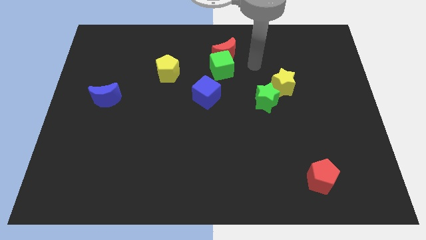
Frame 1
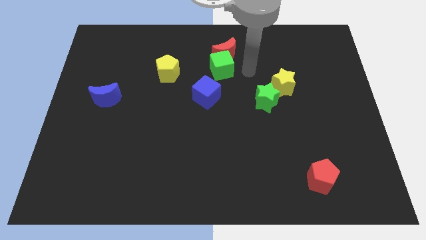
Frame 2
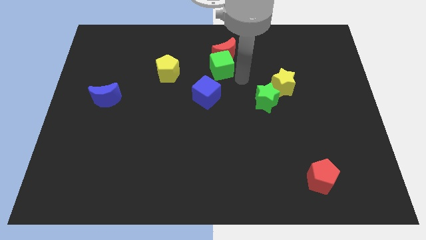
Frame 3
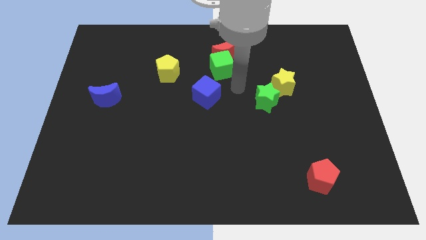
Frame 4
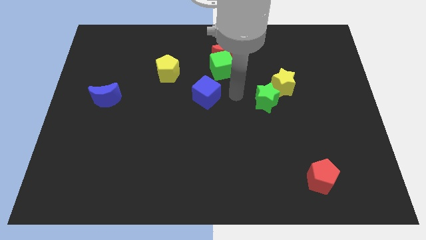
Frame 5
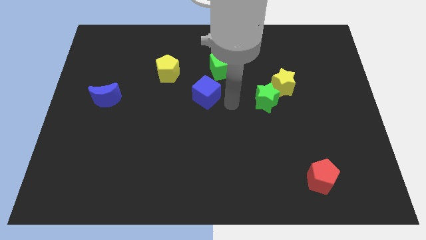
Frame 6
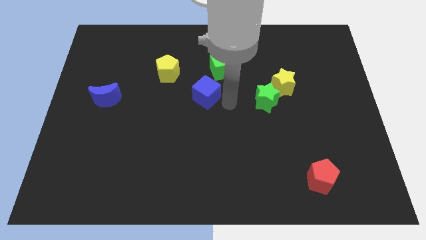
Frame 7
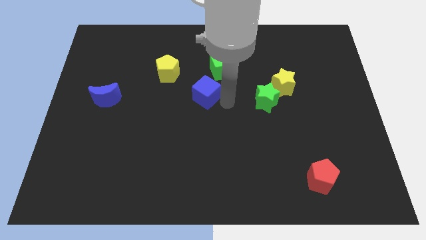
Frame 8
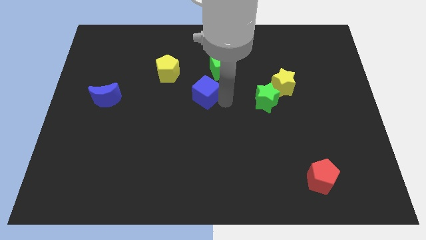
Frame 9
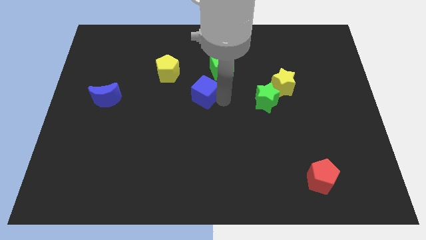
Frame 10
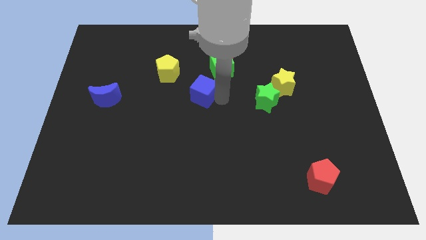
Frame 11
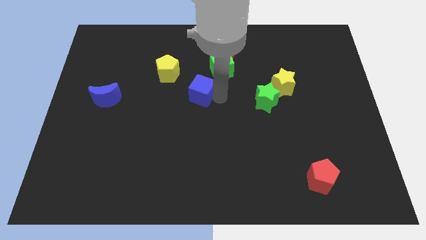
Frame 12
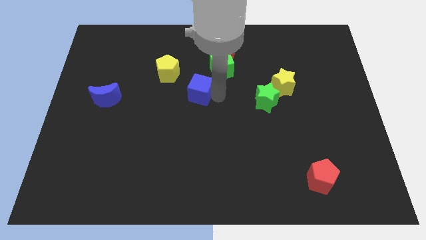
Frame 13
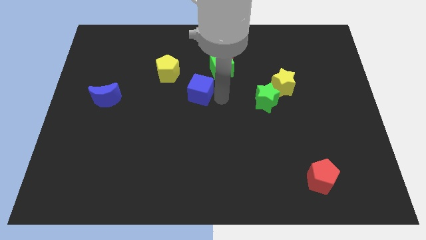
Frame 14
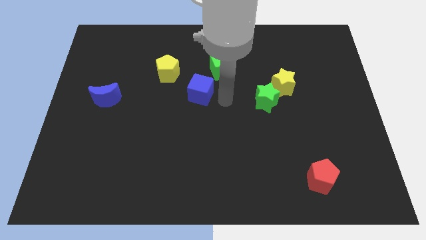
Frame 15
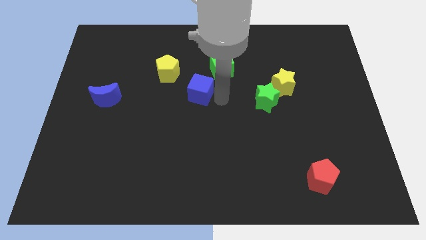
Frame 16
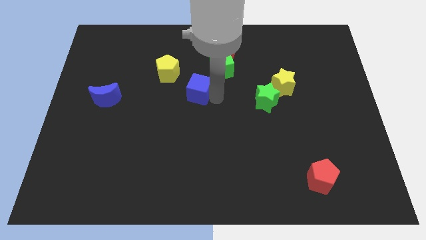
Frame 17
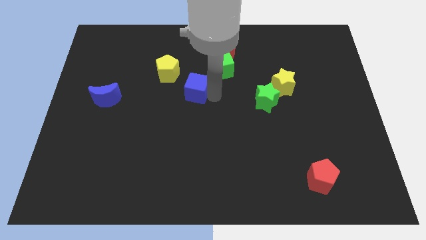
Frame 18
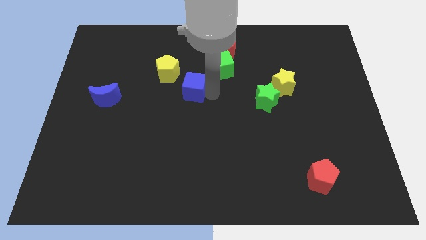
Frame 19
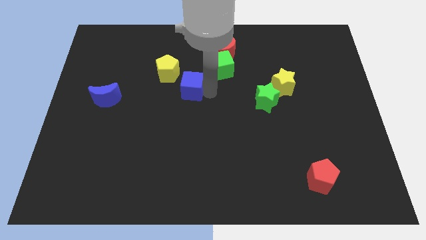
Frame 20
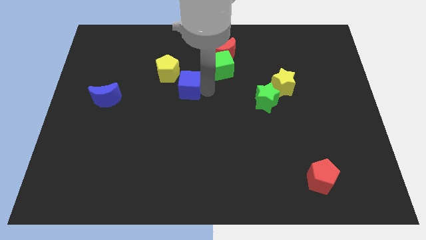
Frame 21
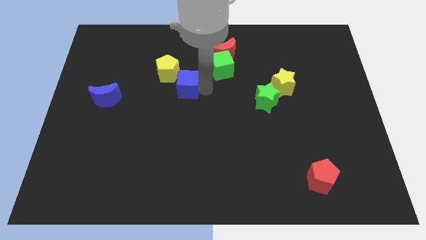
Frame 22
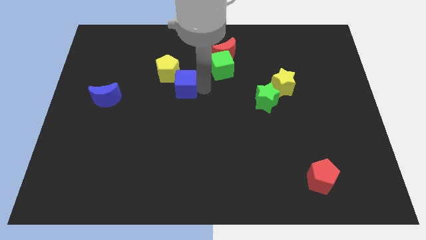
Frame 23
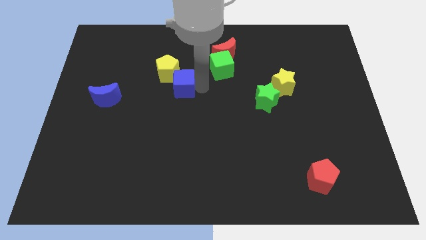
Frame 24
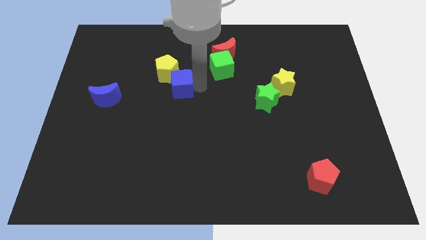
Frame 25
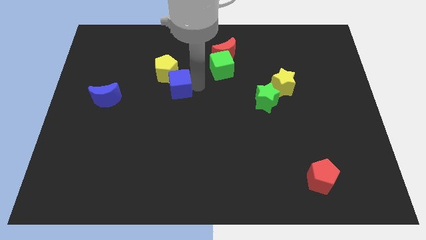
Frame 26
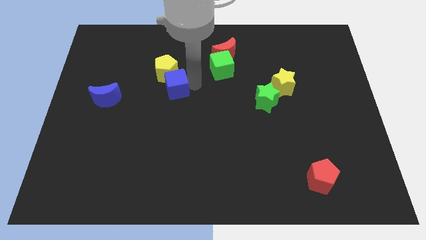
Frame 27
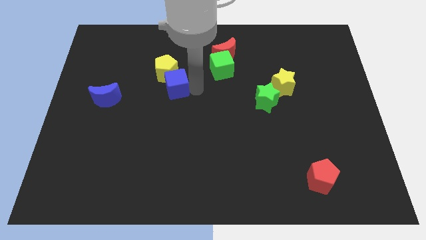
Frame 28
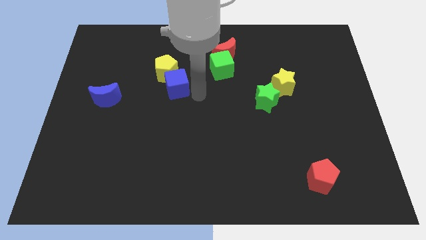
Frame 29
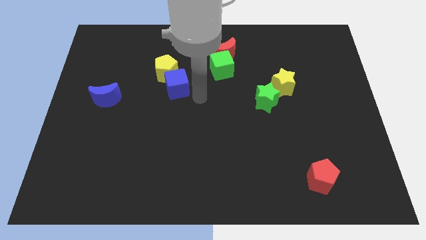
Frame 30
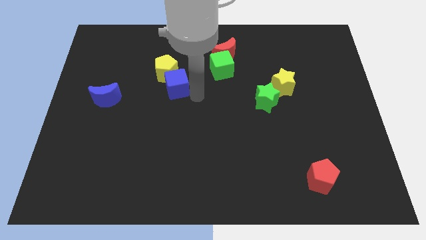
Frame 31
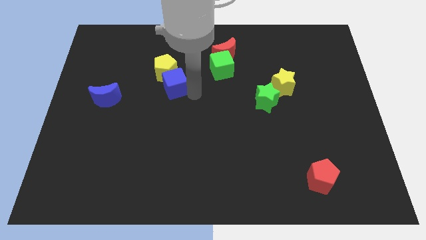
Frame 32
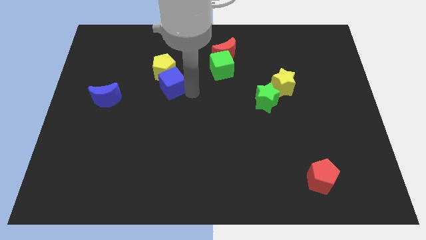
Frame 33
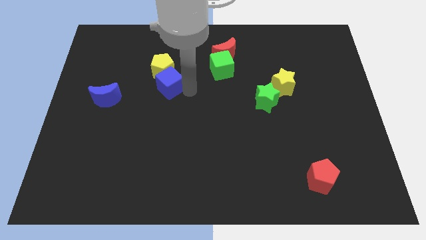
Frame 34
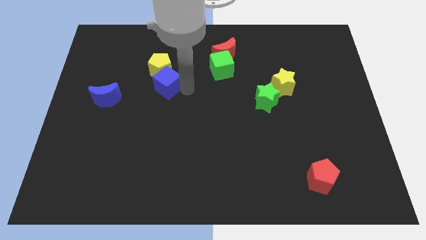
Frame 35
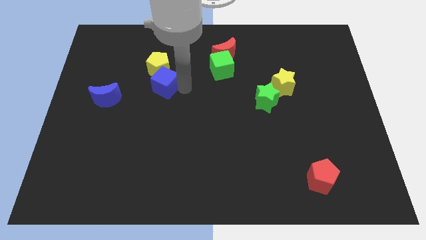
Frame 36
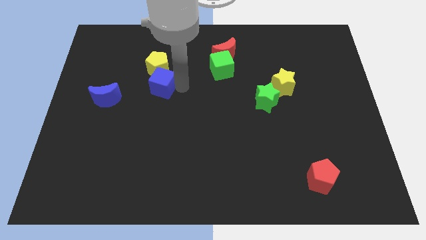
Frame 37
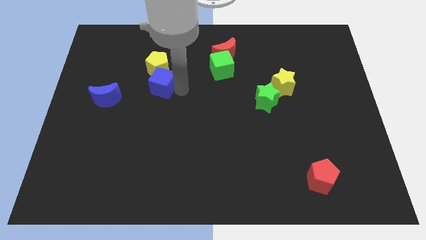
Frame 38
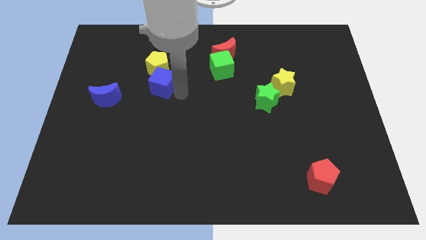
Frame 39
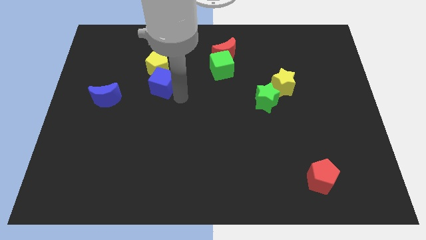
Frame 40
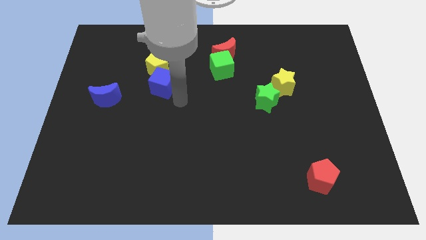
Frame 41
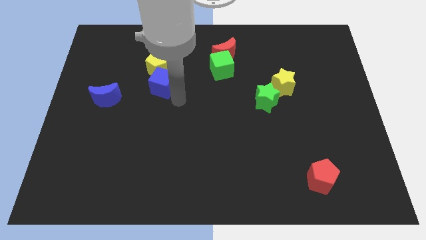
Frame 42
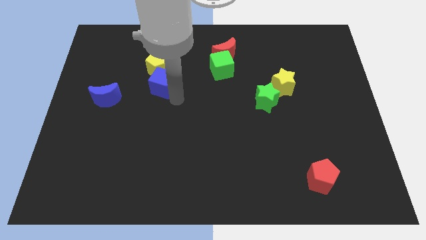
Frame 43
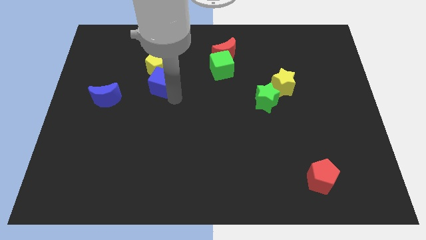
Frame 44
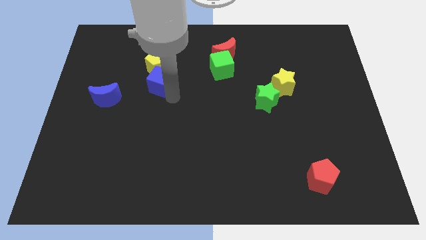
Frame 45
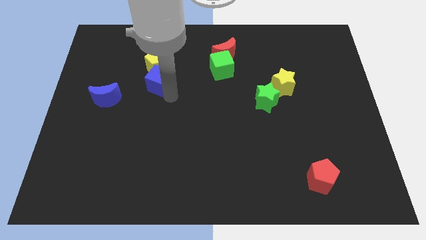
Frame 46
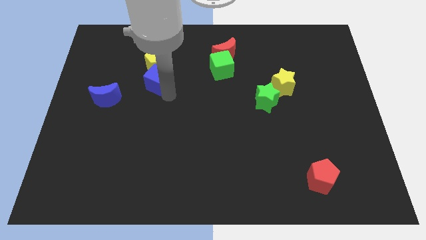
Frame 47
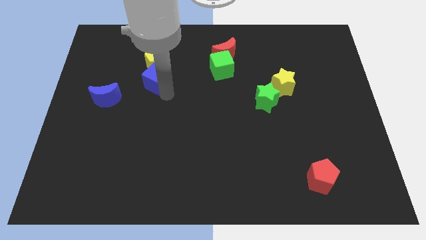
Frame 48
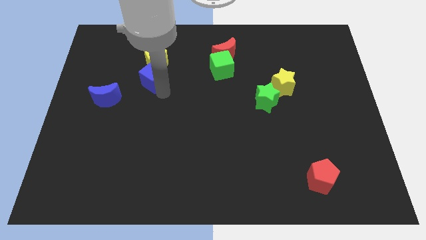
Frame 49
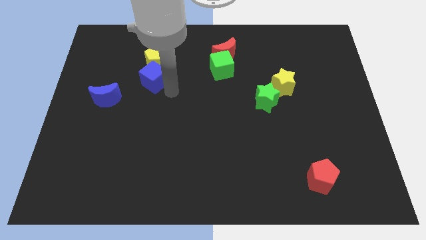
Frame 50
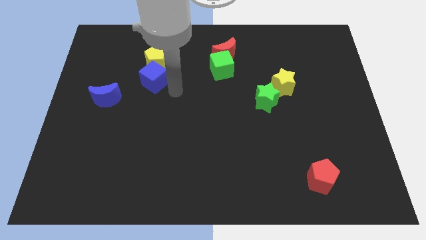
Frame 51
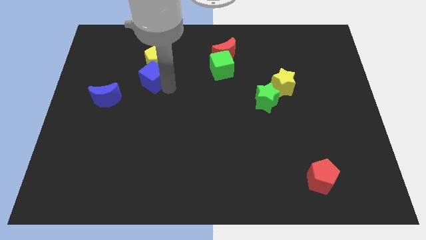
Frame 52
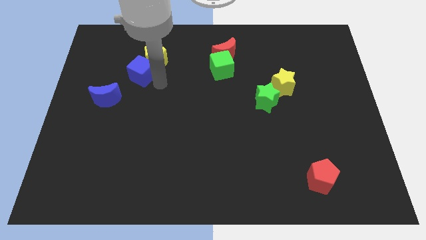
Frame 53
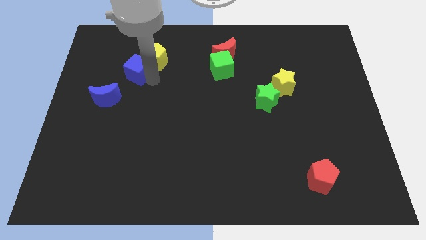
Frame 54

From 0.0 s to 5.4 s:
move the blue cube just left of the yellow pentagon

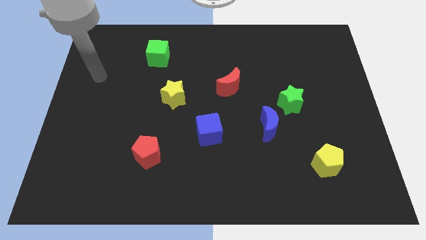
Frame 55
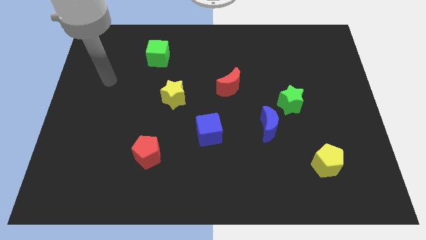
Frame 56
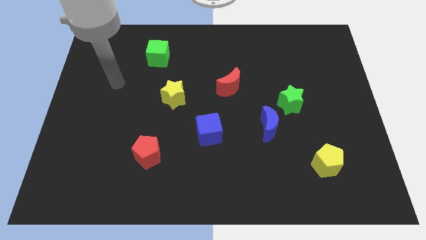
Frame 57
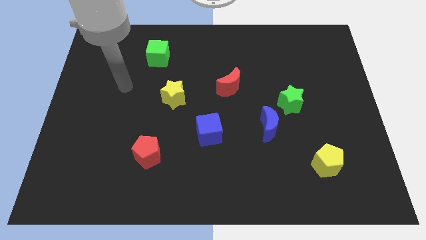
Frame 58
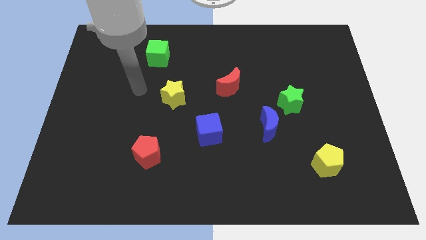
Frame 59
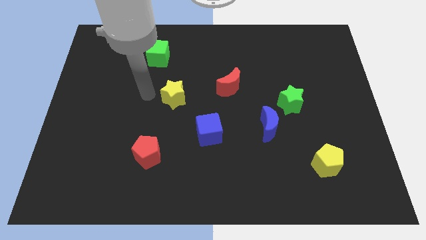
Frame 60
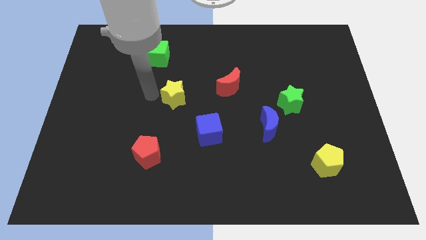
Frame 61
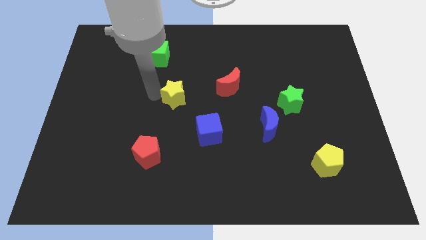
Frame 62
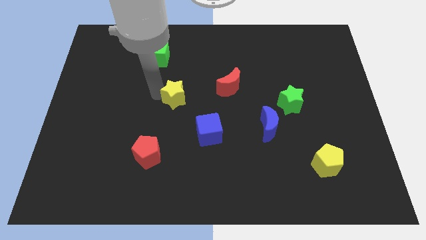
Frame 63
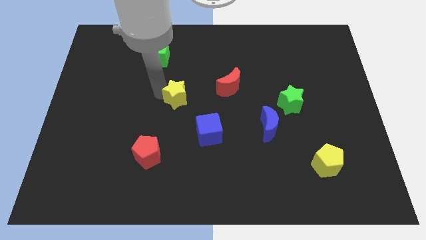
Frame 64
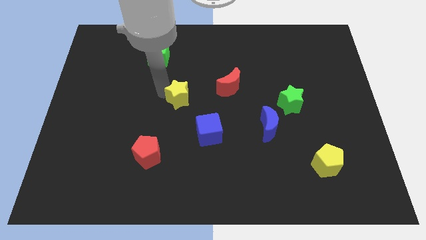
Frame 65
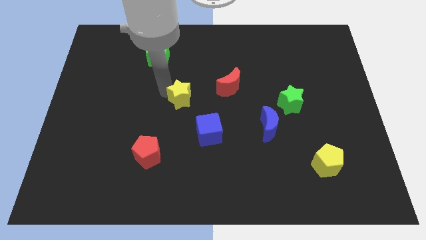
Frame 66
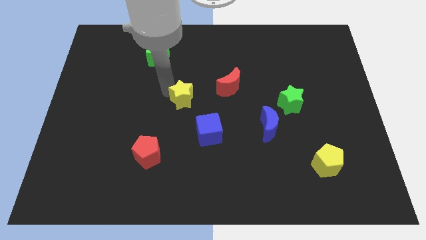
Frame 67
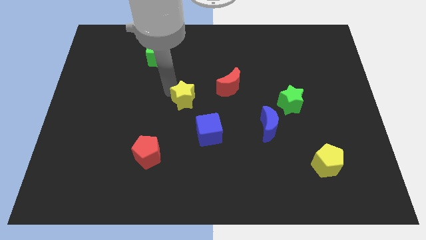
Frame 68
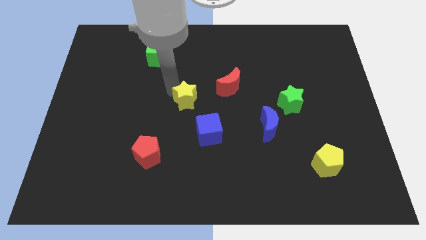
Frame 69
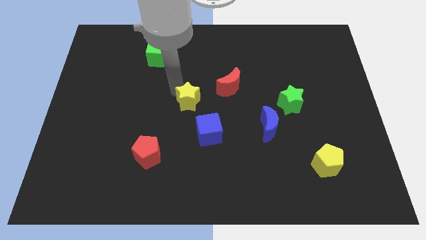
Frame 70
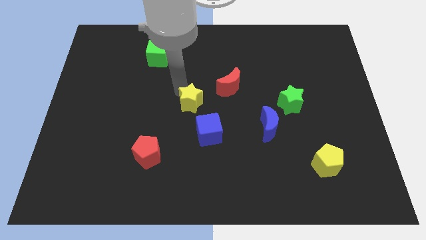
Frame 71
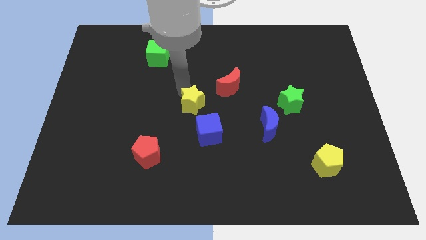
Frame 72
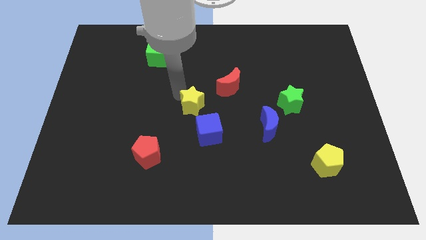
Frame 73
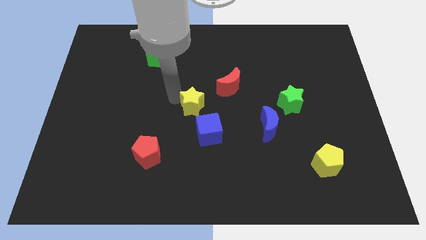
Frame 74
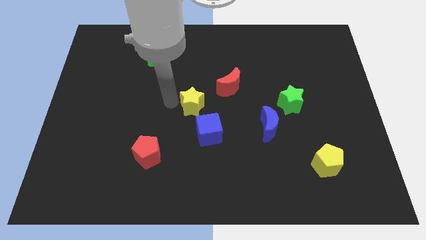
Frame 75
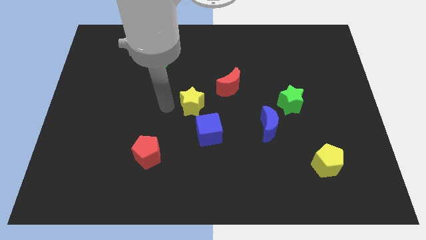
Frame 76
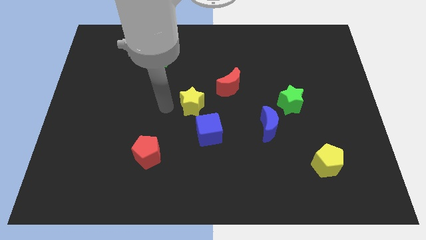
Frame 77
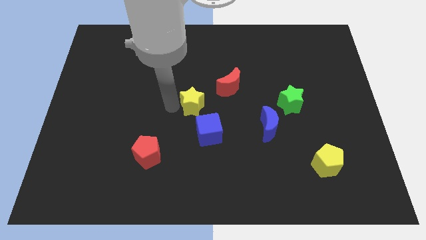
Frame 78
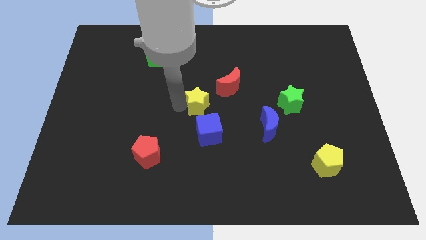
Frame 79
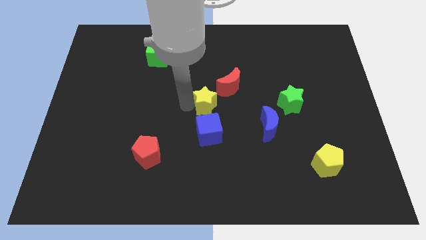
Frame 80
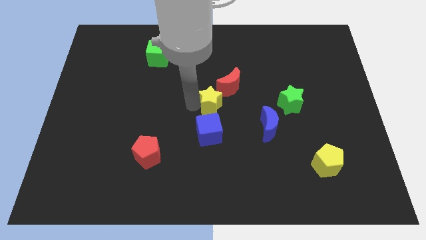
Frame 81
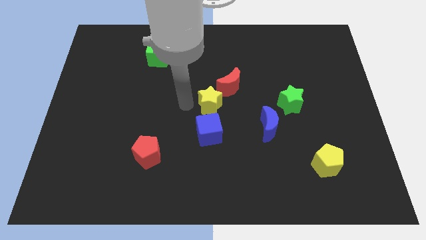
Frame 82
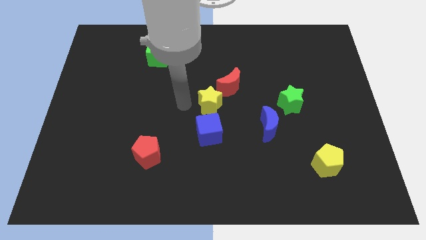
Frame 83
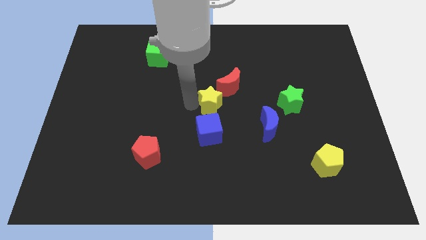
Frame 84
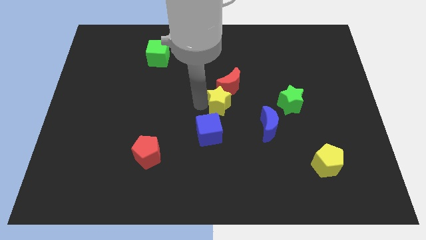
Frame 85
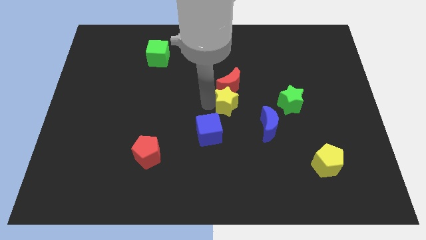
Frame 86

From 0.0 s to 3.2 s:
put the yellow star to the left of the green star
